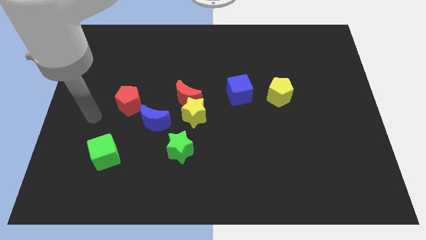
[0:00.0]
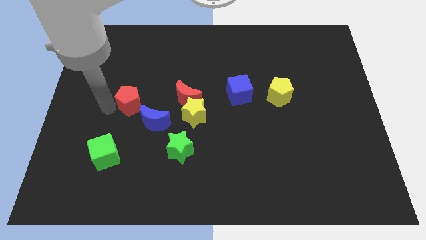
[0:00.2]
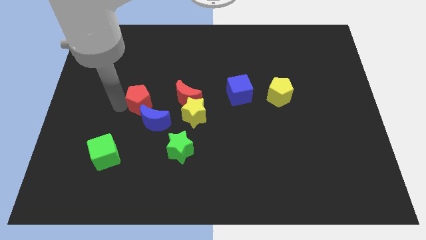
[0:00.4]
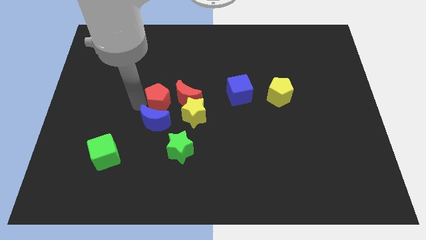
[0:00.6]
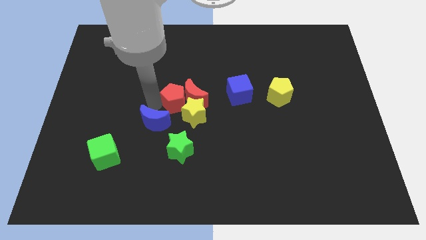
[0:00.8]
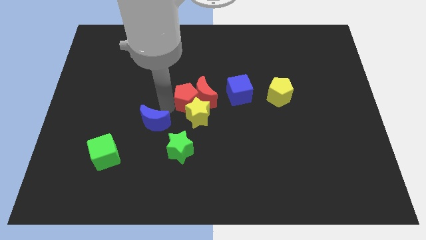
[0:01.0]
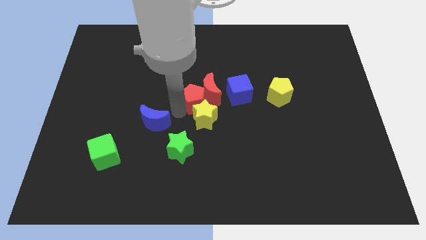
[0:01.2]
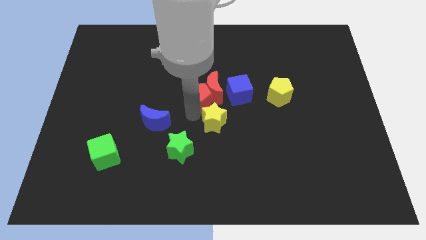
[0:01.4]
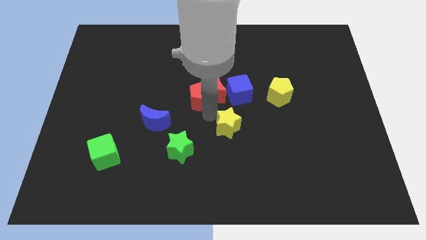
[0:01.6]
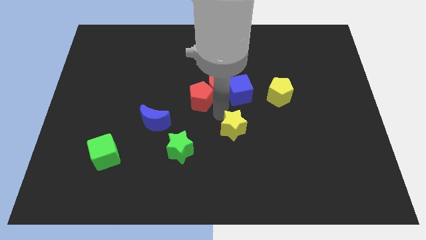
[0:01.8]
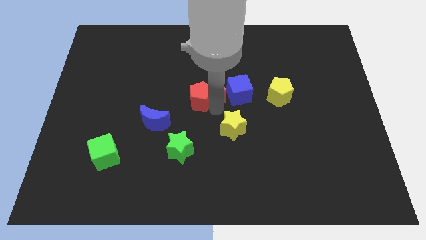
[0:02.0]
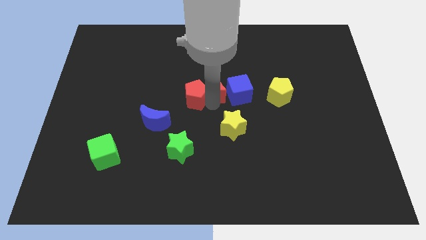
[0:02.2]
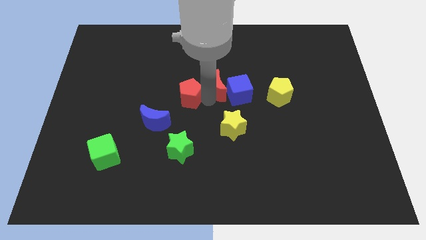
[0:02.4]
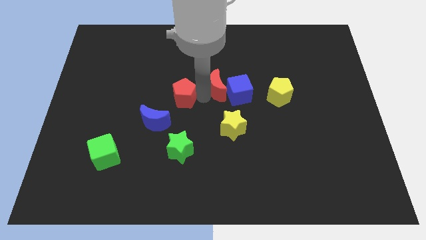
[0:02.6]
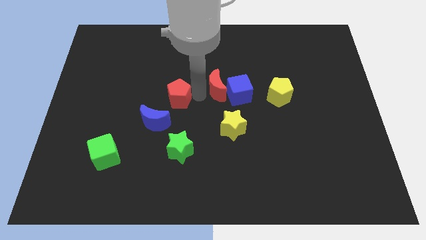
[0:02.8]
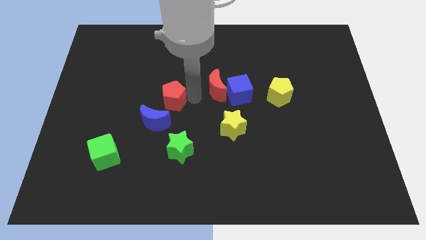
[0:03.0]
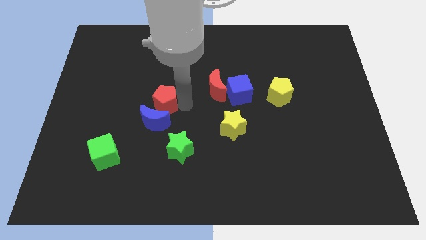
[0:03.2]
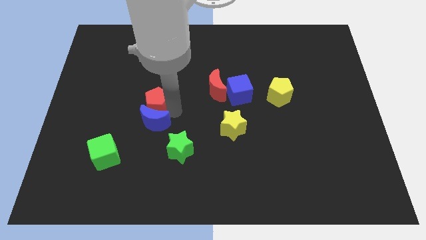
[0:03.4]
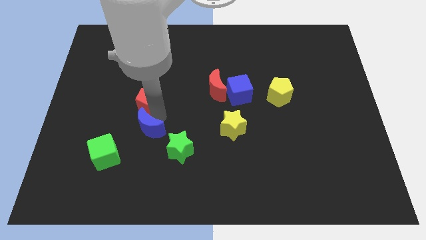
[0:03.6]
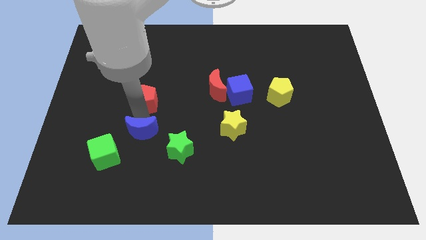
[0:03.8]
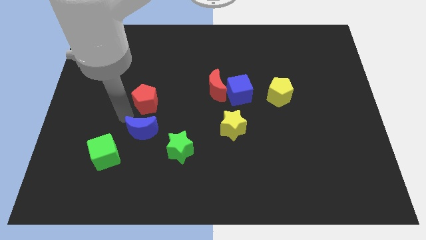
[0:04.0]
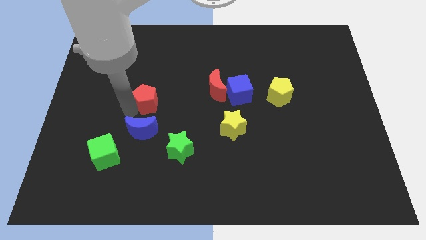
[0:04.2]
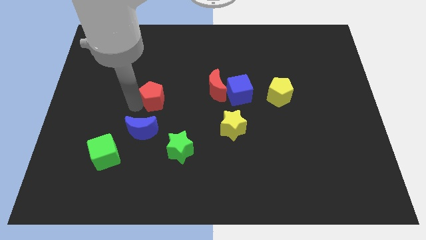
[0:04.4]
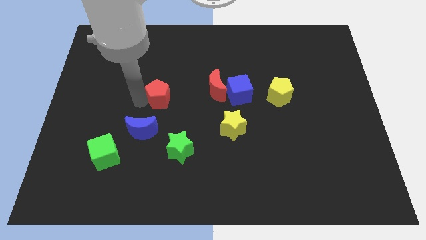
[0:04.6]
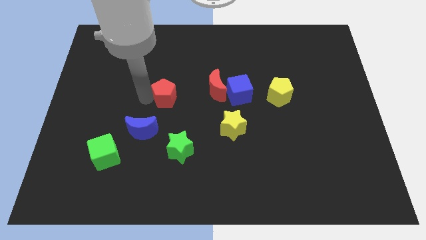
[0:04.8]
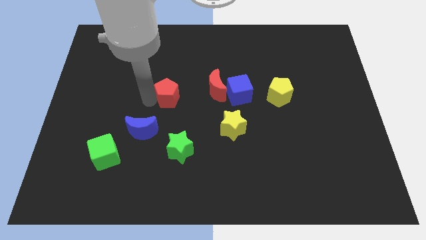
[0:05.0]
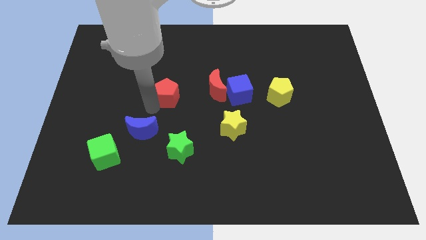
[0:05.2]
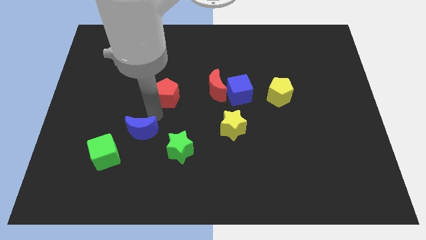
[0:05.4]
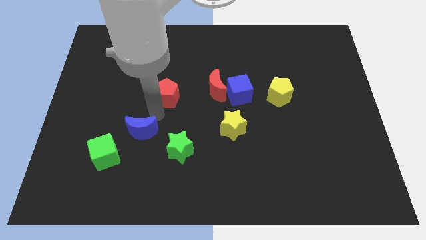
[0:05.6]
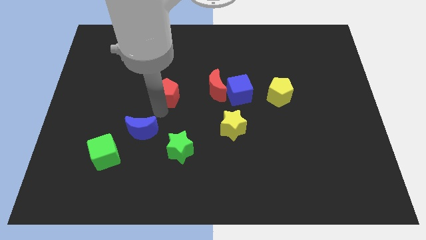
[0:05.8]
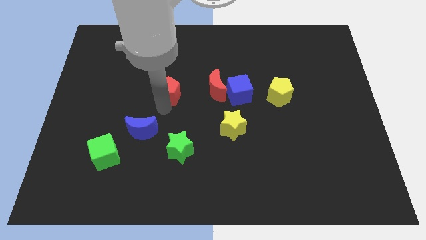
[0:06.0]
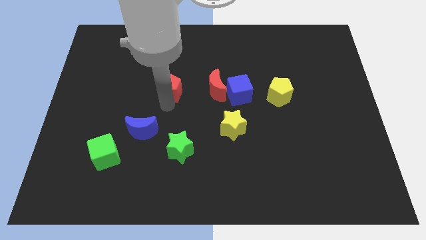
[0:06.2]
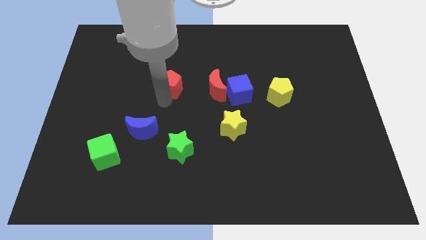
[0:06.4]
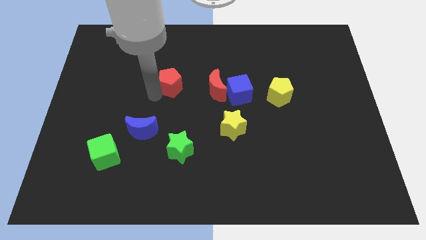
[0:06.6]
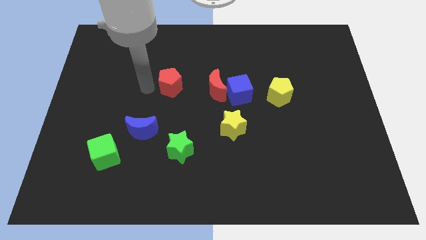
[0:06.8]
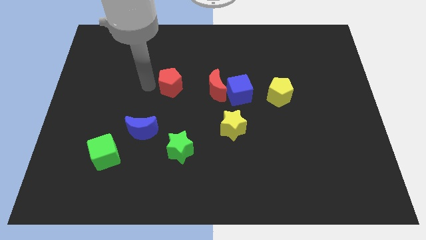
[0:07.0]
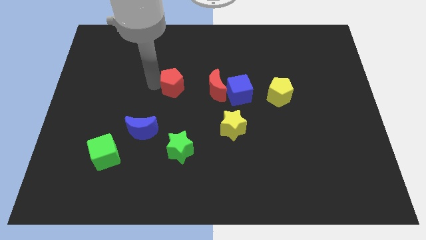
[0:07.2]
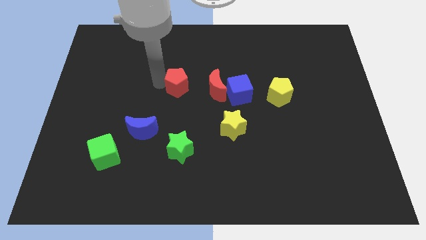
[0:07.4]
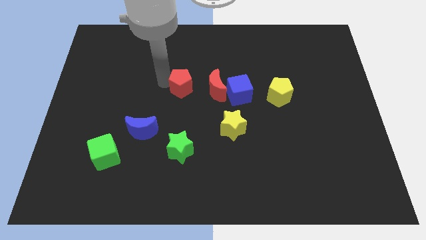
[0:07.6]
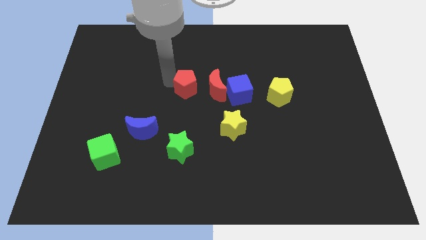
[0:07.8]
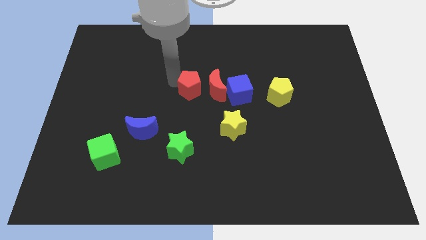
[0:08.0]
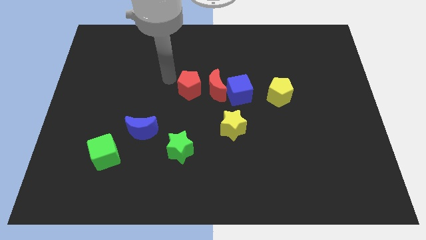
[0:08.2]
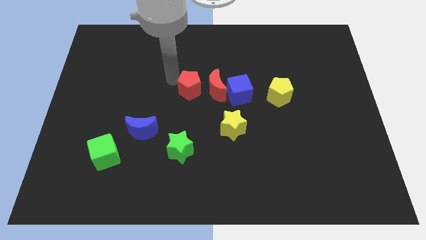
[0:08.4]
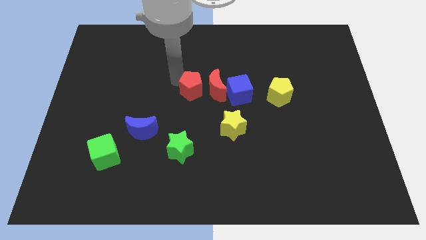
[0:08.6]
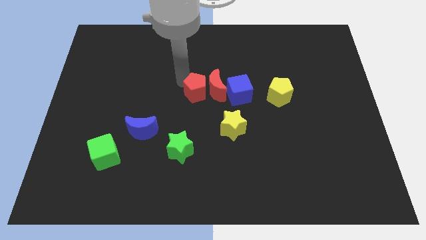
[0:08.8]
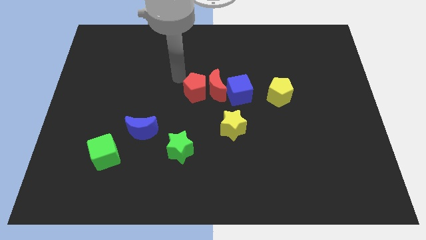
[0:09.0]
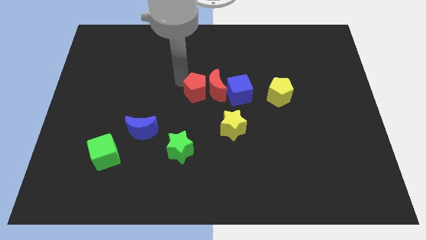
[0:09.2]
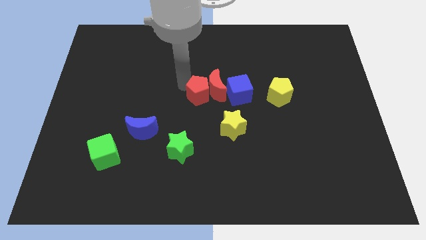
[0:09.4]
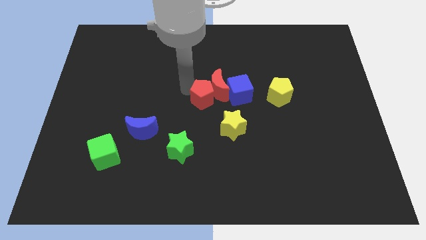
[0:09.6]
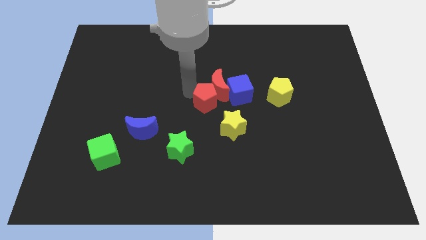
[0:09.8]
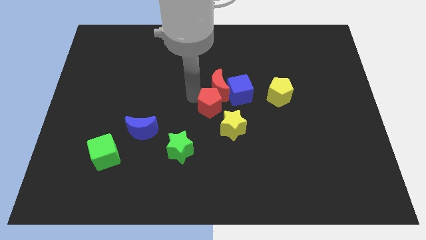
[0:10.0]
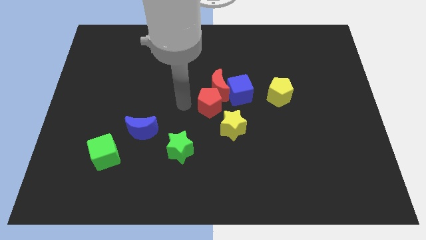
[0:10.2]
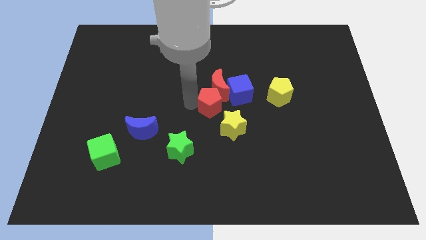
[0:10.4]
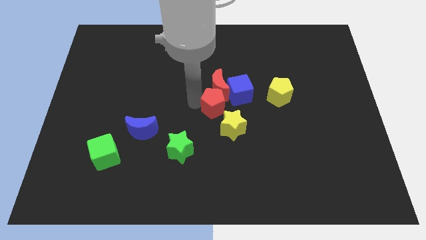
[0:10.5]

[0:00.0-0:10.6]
move the red pentagon to the right

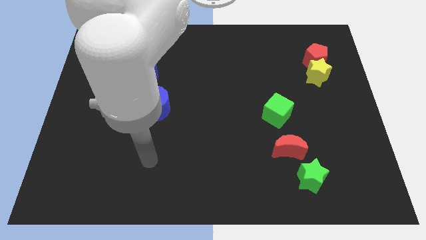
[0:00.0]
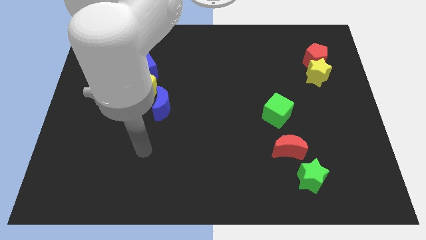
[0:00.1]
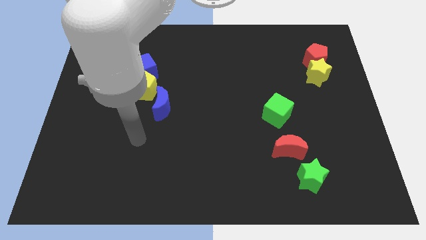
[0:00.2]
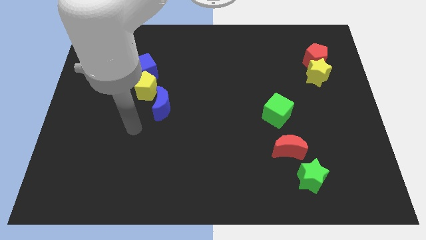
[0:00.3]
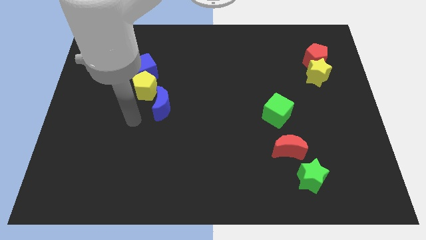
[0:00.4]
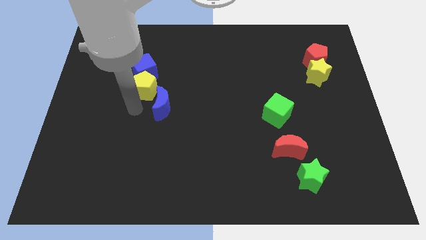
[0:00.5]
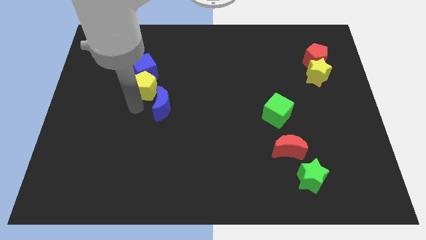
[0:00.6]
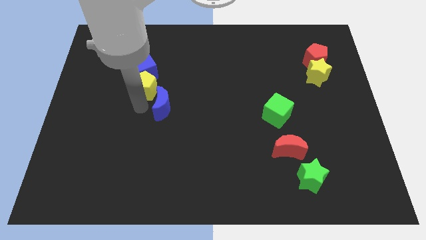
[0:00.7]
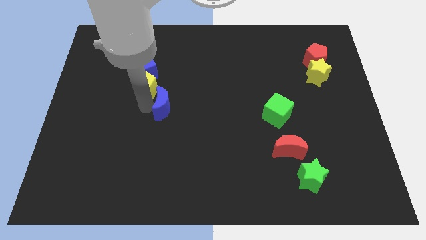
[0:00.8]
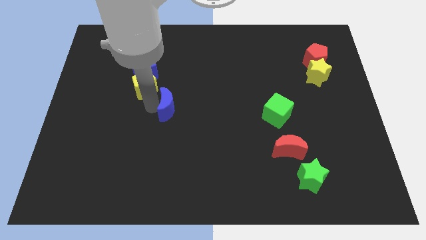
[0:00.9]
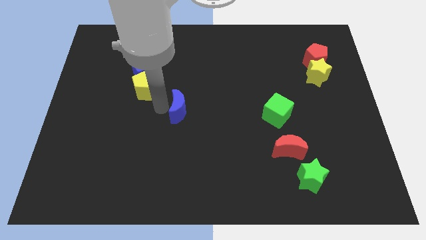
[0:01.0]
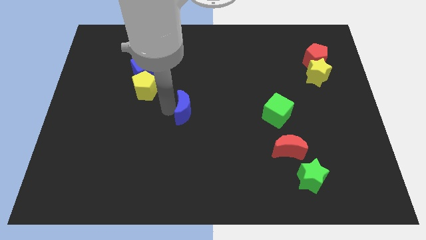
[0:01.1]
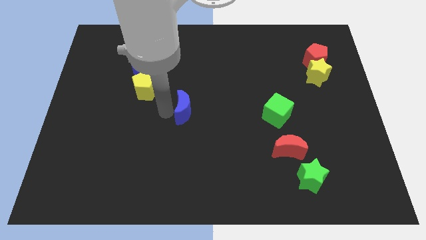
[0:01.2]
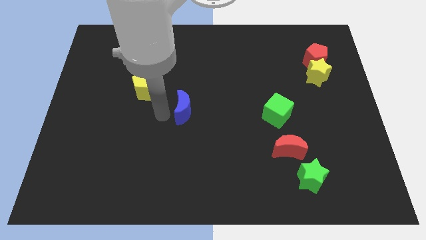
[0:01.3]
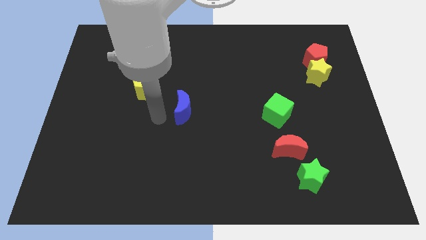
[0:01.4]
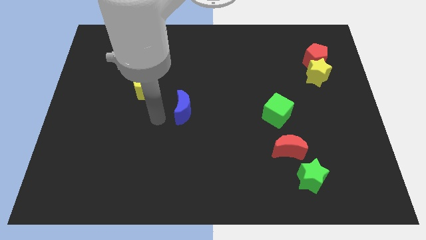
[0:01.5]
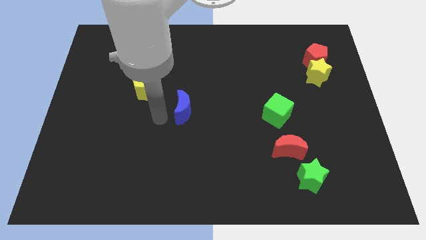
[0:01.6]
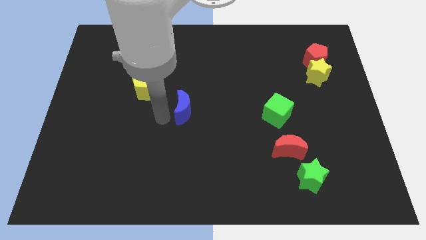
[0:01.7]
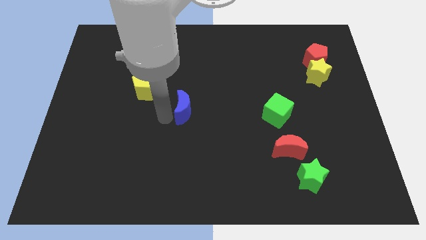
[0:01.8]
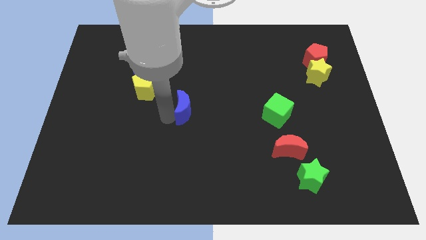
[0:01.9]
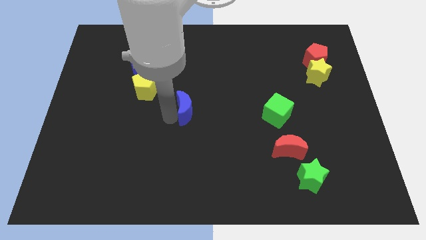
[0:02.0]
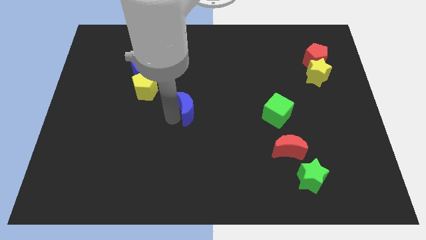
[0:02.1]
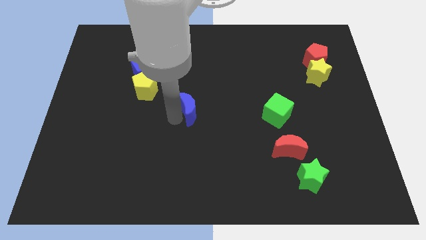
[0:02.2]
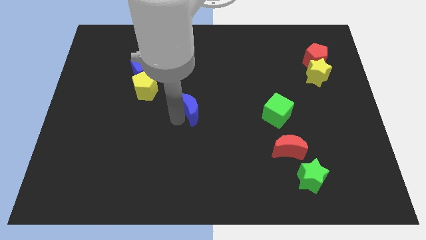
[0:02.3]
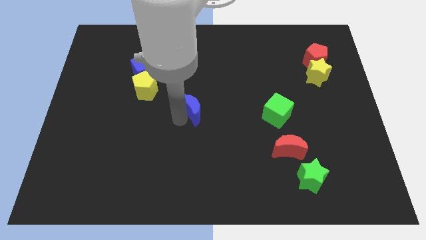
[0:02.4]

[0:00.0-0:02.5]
slightly slide the blue moon to the right

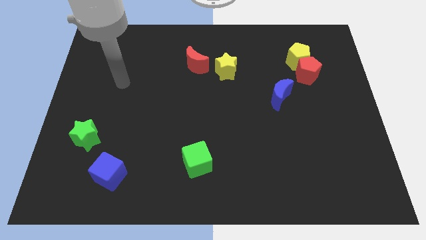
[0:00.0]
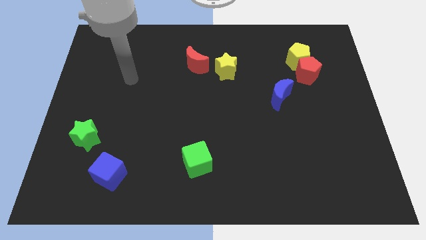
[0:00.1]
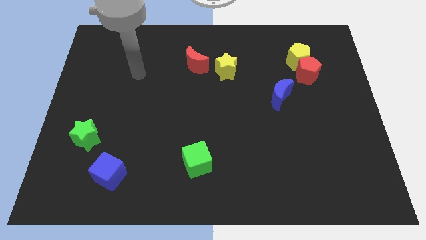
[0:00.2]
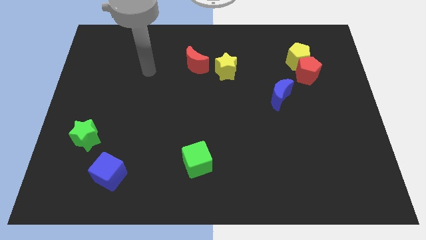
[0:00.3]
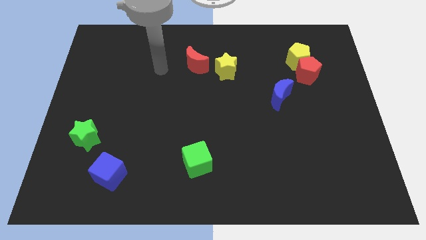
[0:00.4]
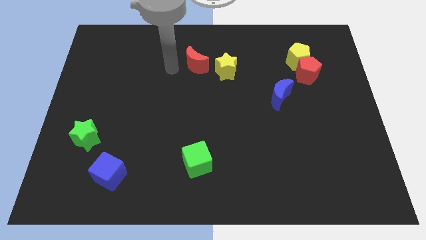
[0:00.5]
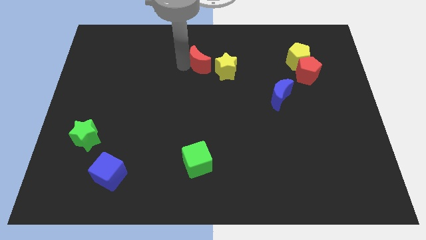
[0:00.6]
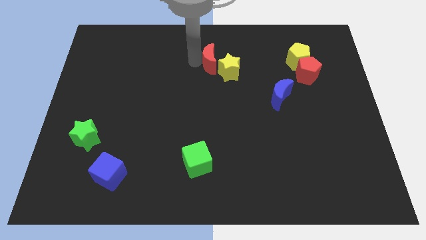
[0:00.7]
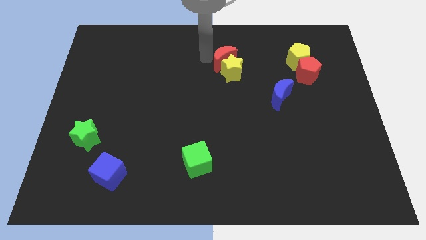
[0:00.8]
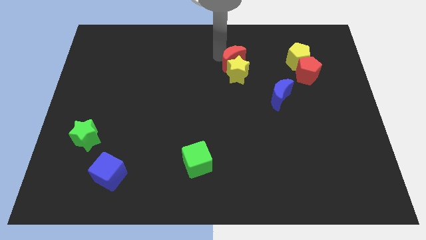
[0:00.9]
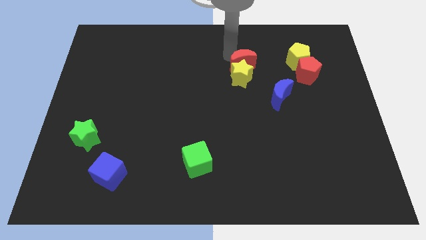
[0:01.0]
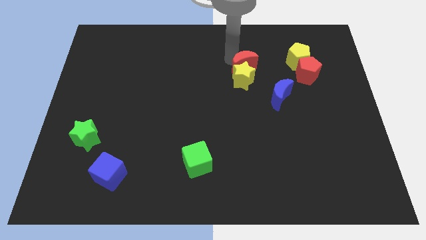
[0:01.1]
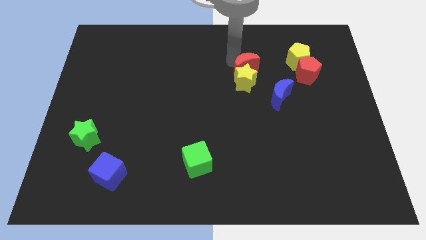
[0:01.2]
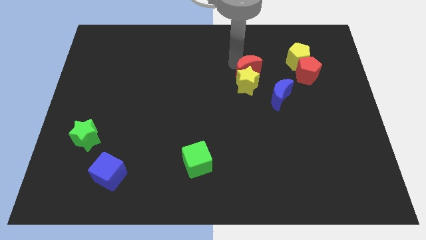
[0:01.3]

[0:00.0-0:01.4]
slightly slide the yellow star down and then to the right
